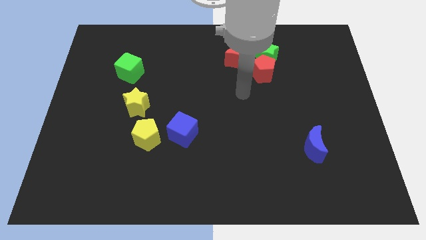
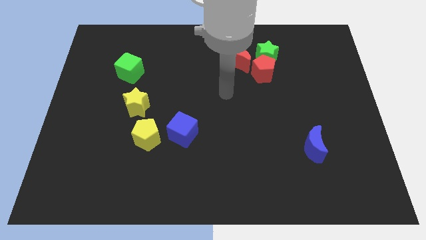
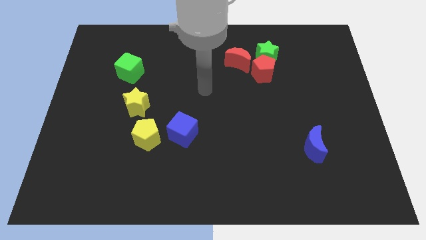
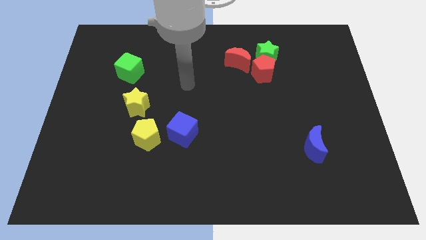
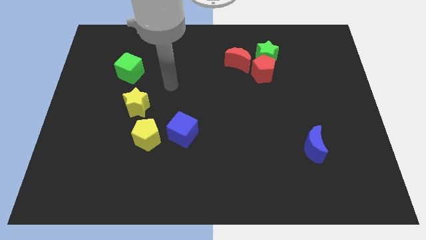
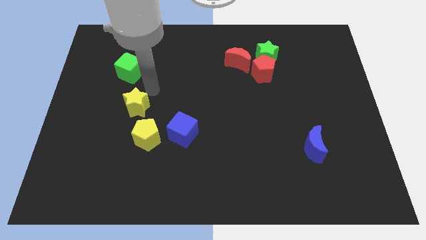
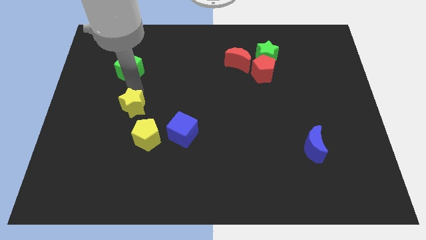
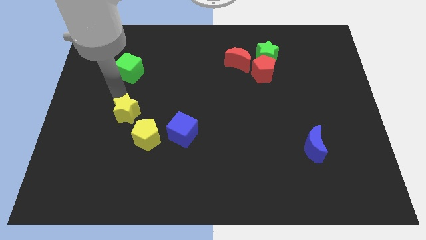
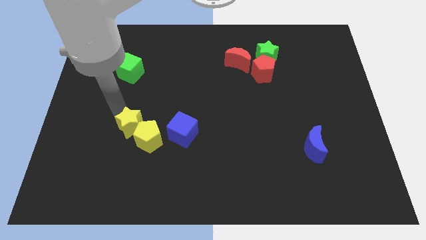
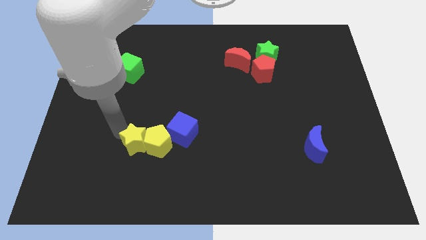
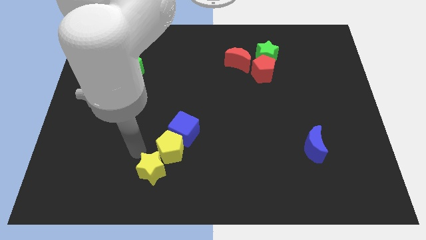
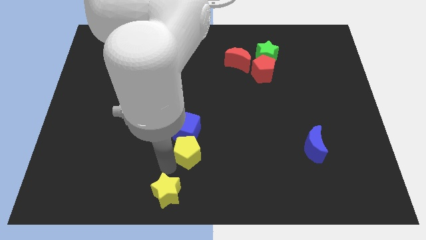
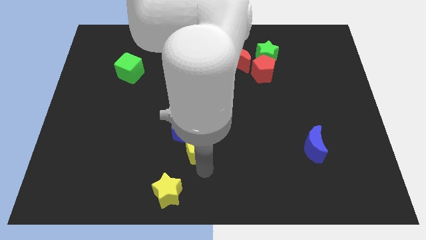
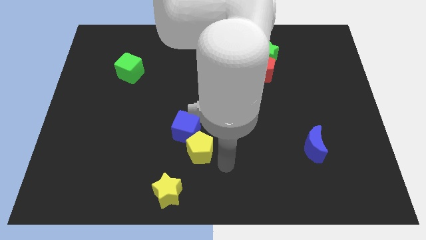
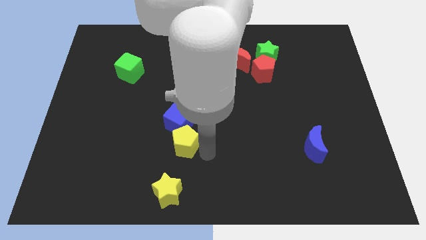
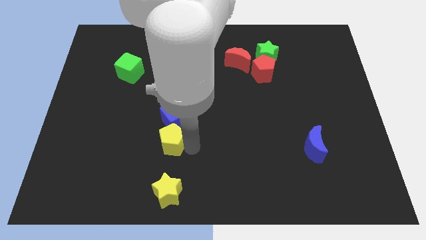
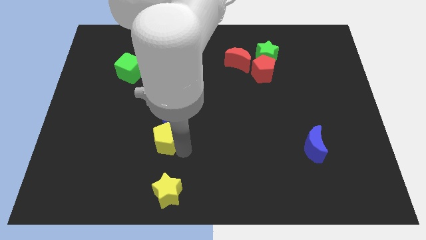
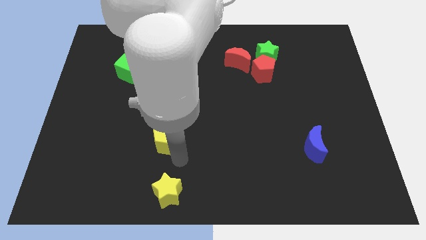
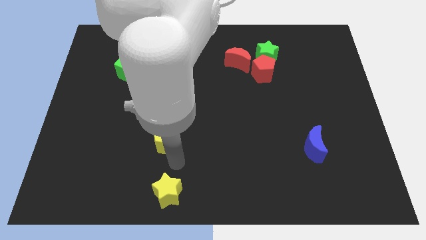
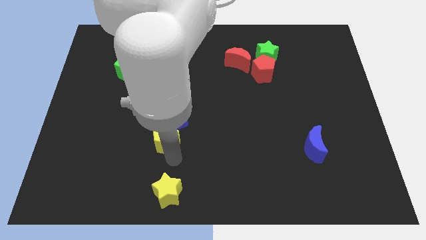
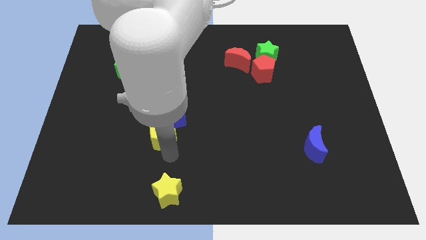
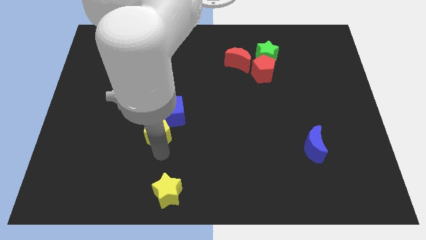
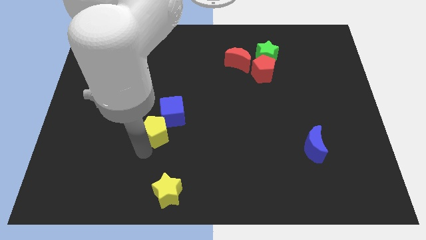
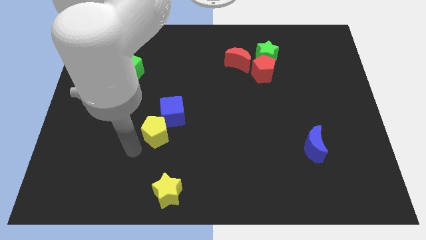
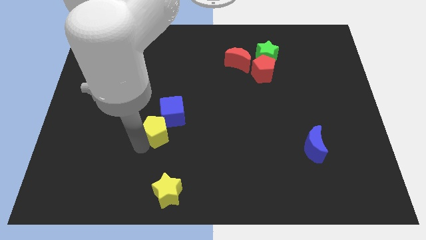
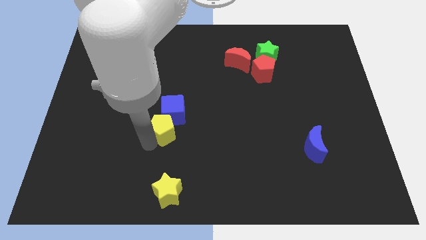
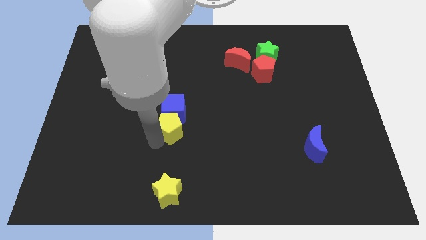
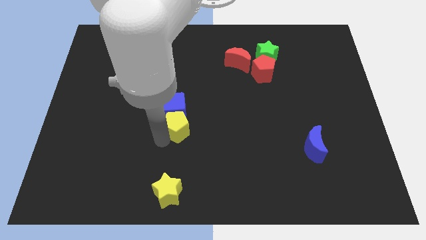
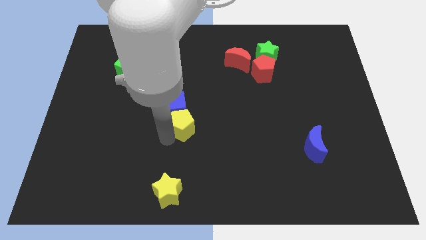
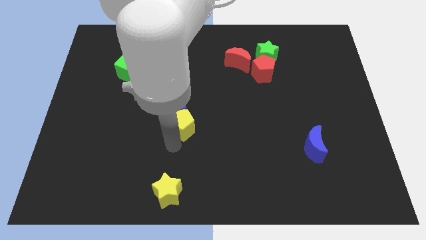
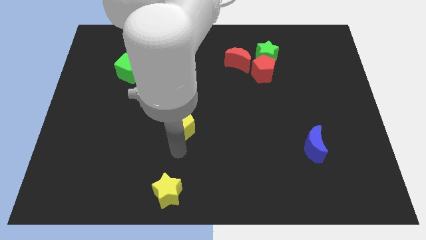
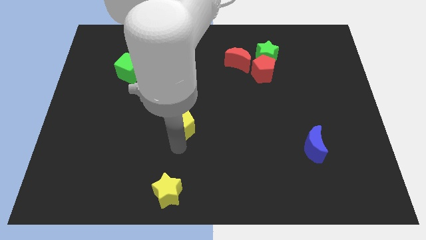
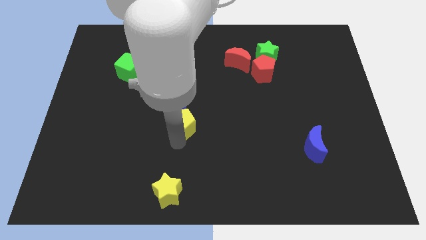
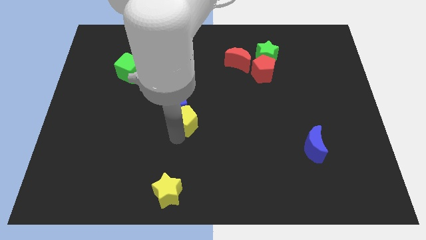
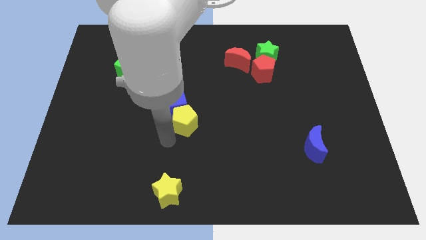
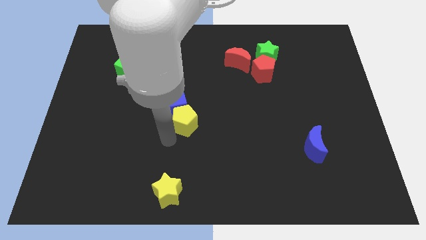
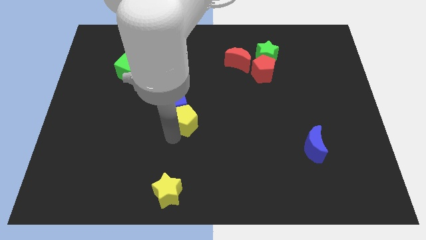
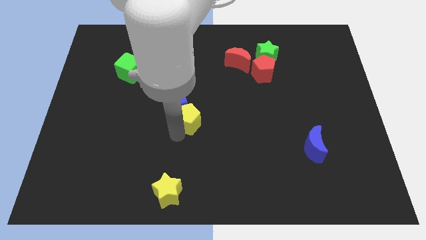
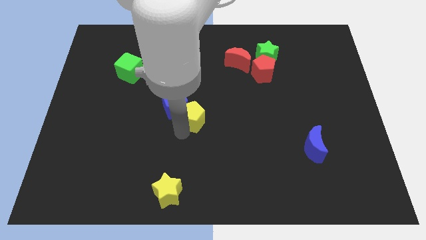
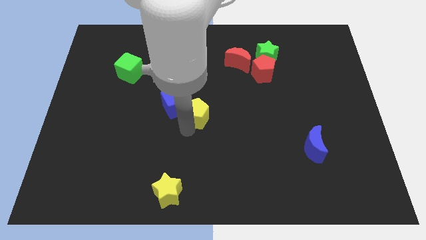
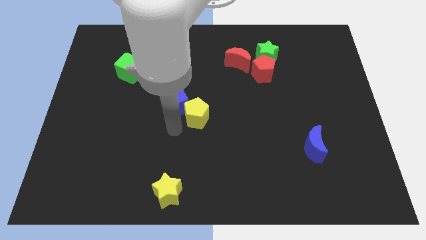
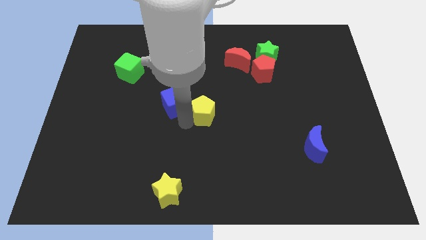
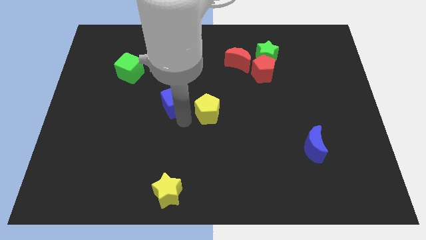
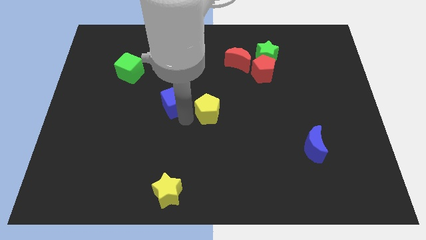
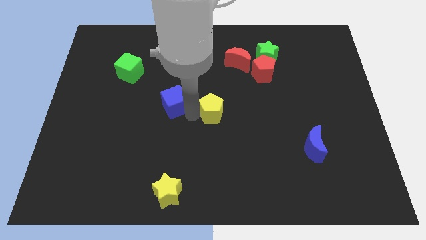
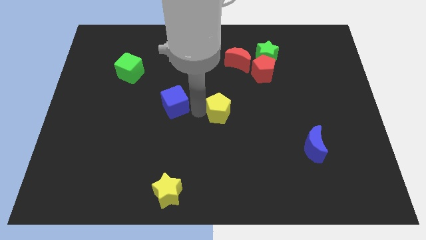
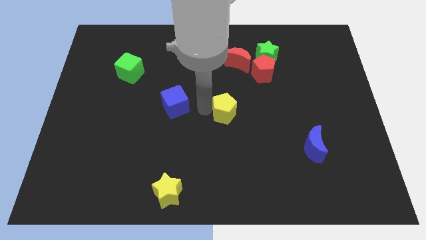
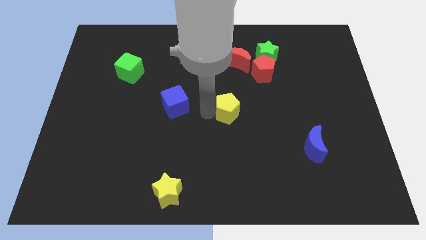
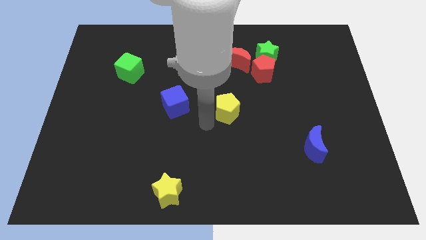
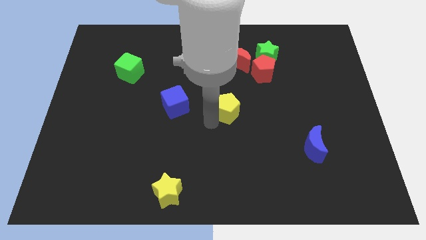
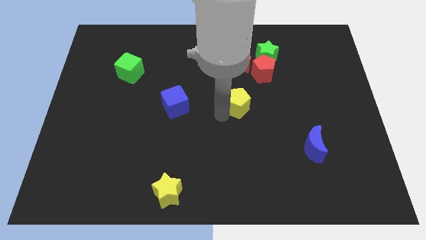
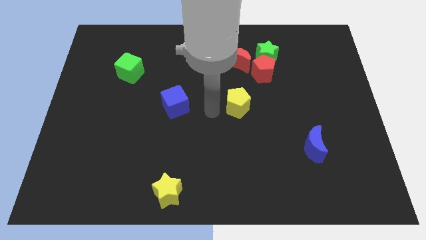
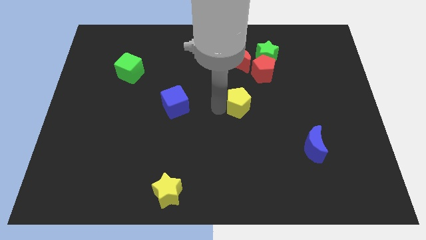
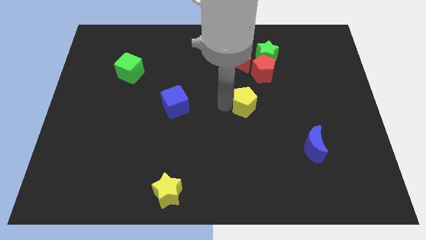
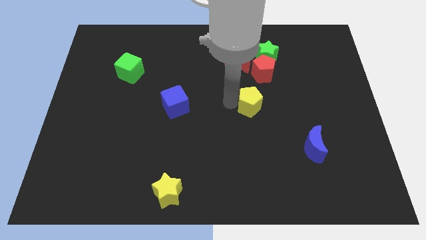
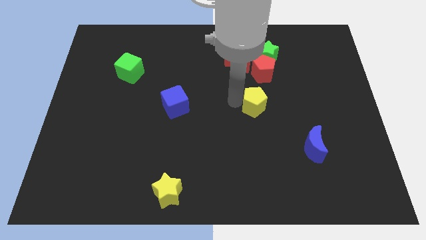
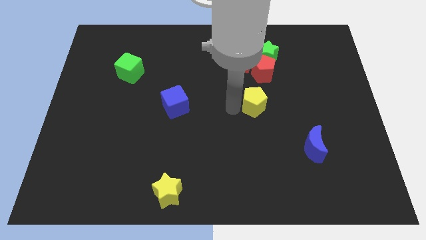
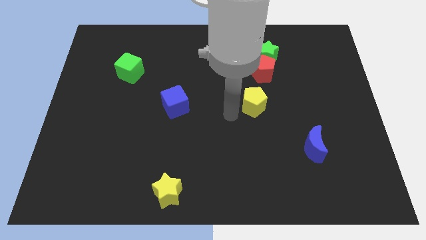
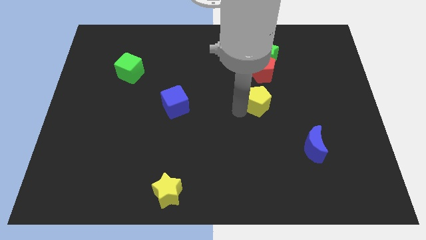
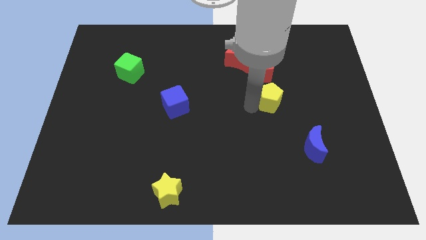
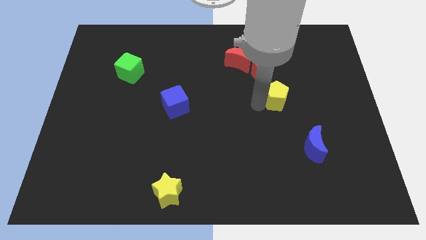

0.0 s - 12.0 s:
slide the yellow pentagon to the bottom right of the red pentagon

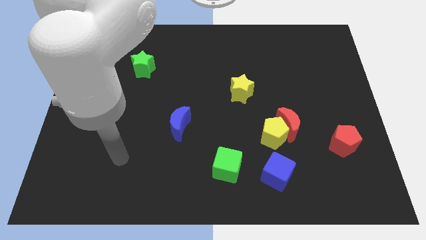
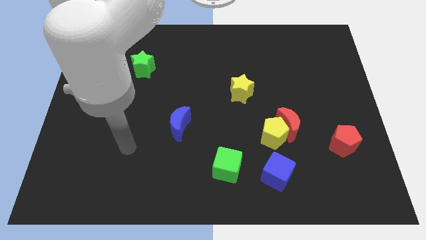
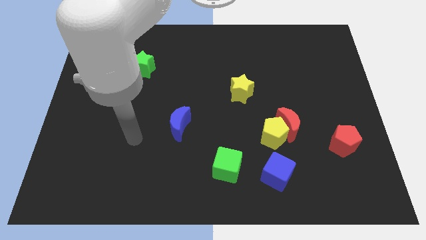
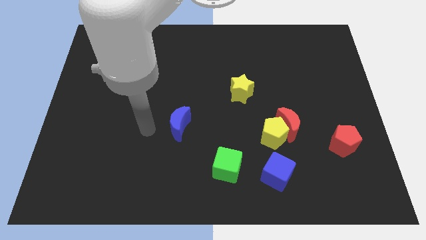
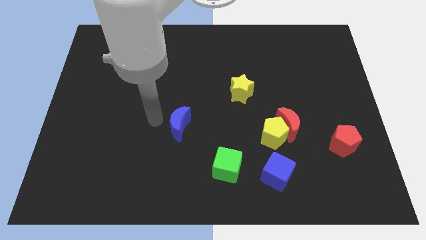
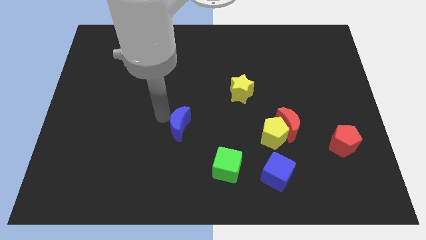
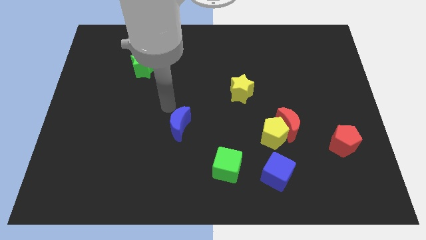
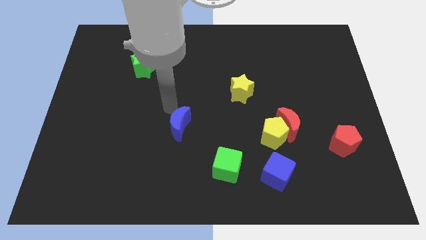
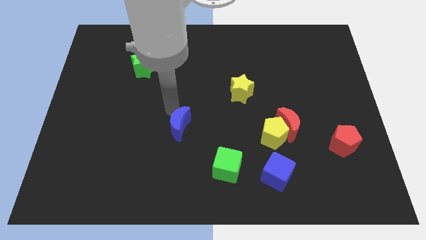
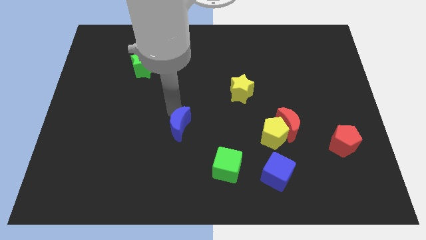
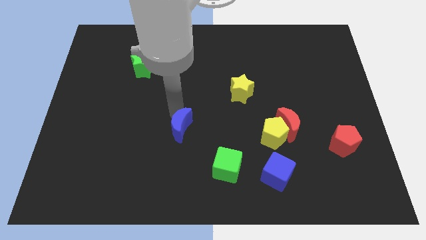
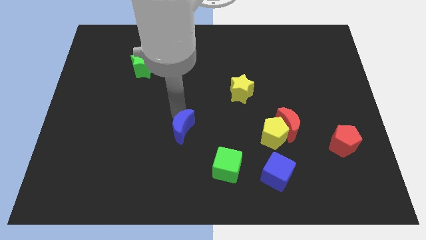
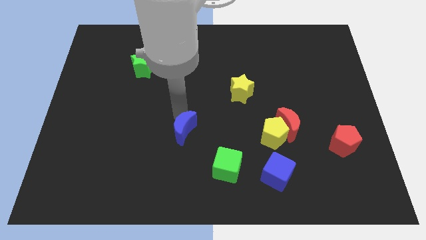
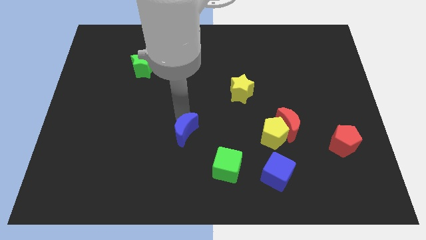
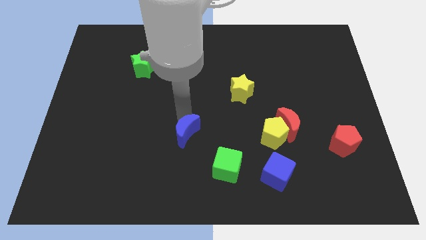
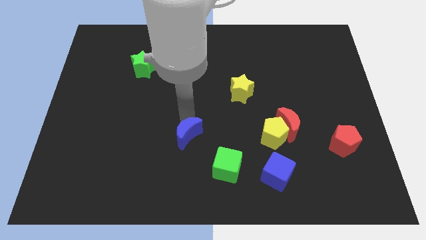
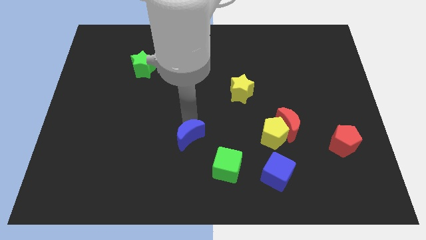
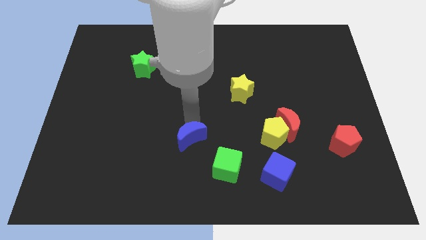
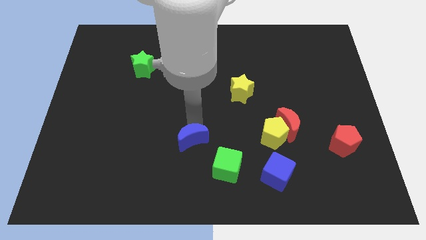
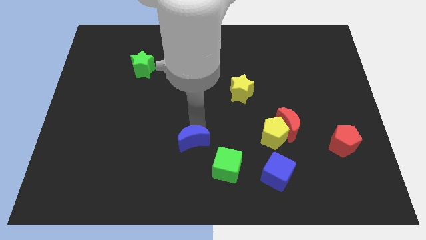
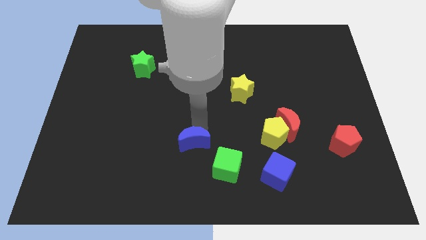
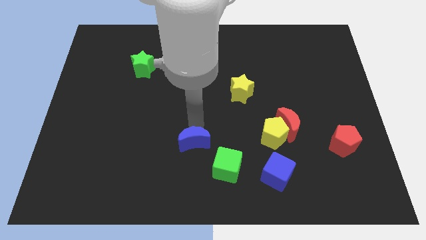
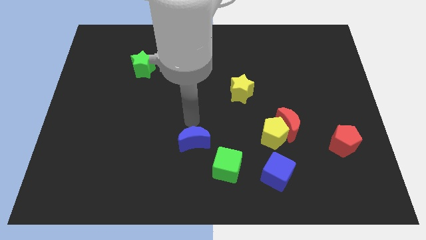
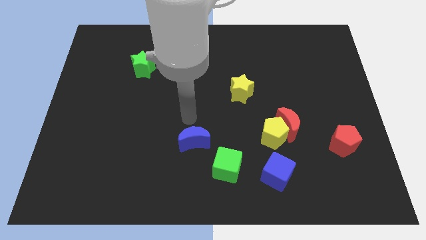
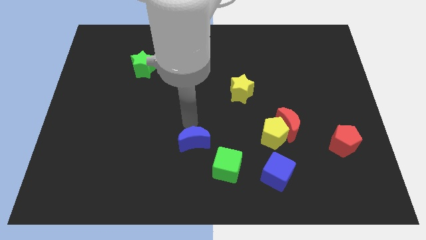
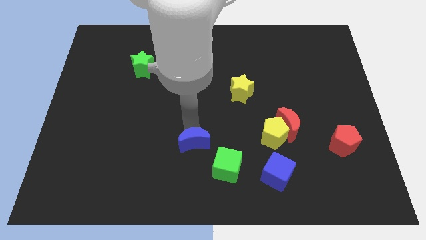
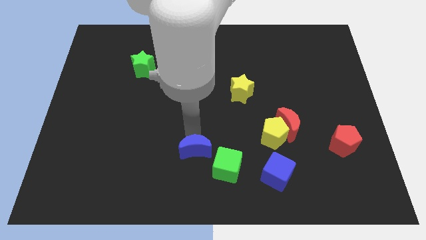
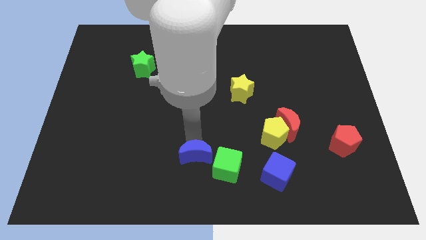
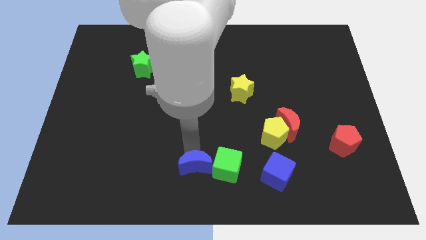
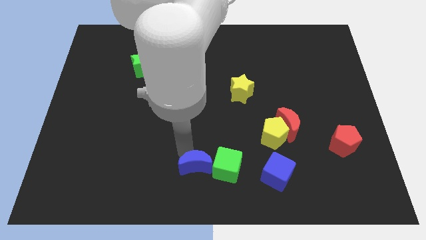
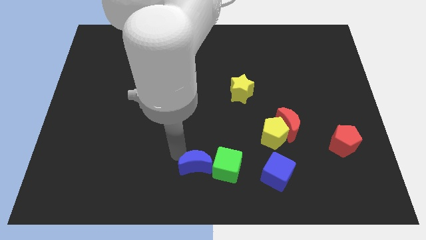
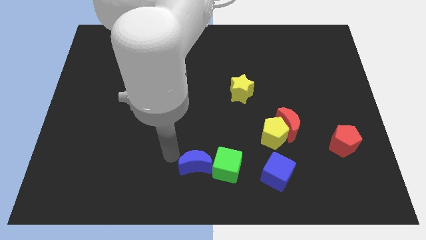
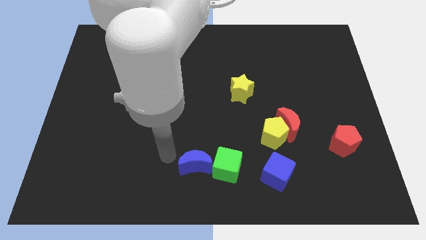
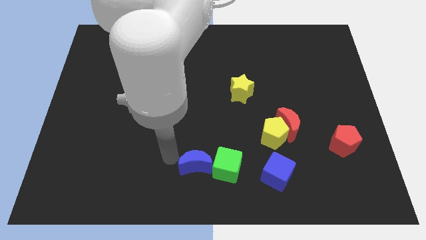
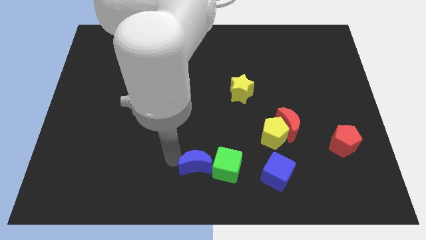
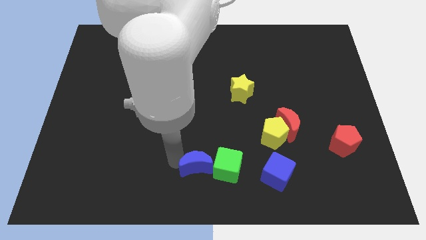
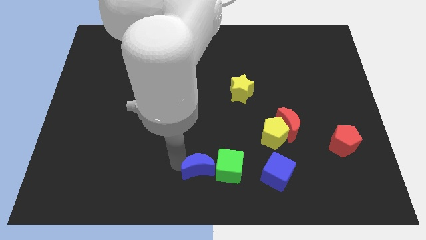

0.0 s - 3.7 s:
move the blue moon left of the blue cube
